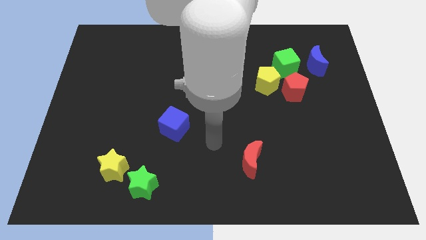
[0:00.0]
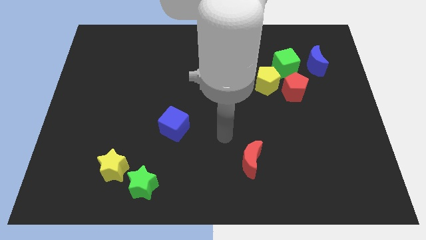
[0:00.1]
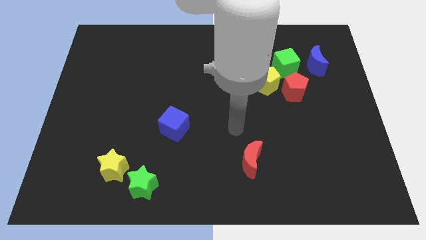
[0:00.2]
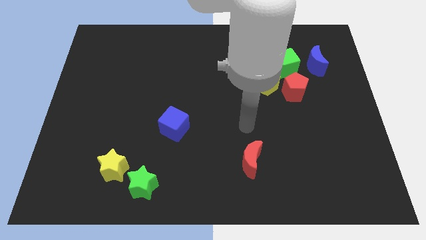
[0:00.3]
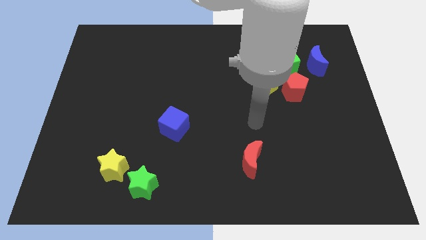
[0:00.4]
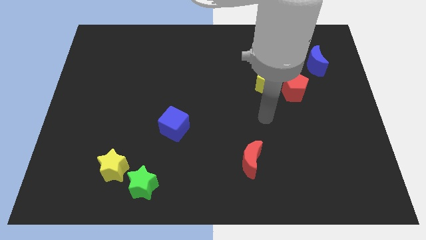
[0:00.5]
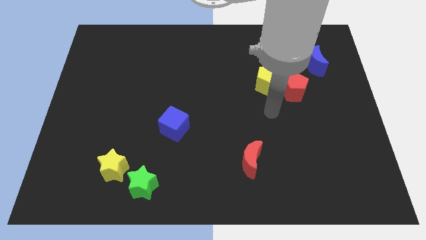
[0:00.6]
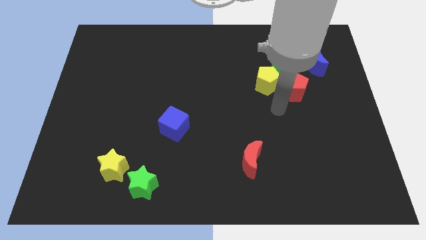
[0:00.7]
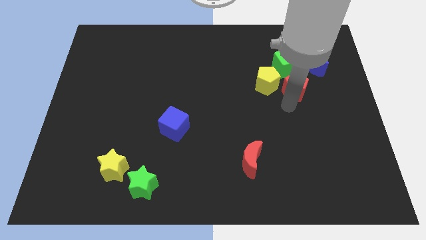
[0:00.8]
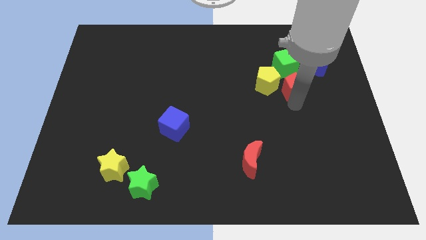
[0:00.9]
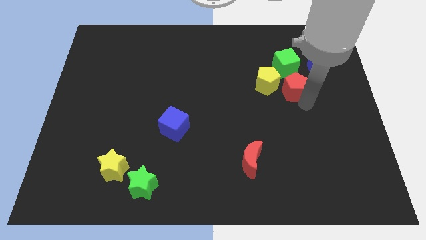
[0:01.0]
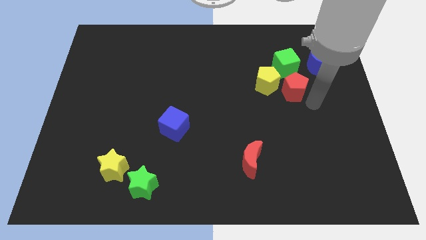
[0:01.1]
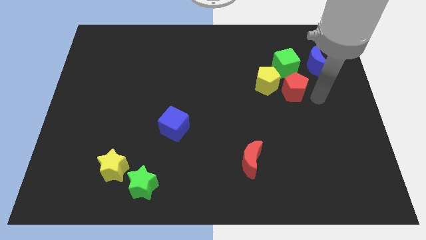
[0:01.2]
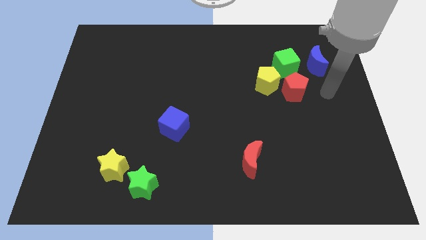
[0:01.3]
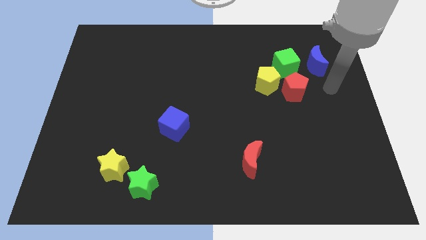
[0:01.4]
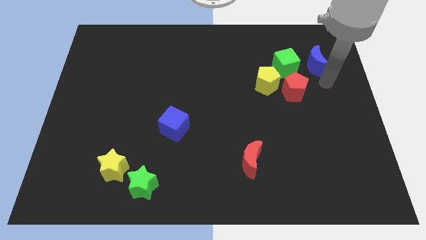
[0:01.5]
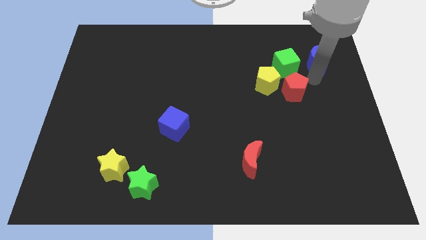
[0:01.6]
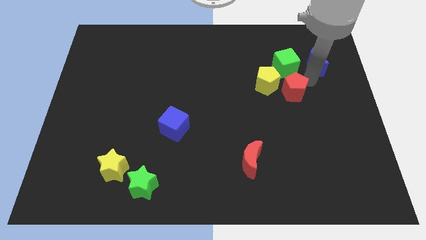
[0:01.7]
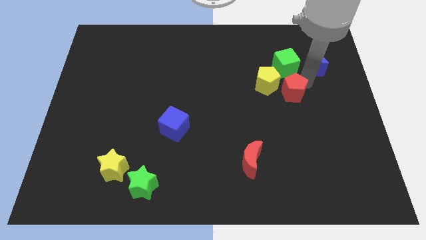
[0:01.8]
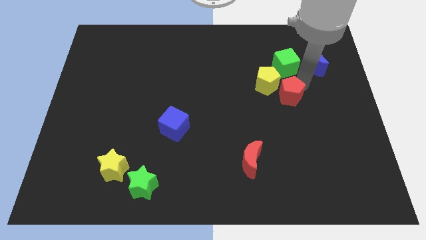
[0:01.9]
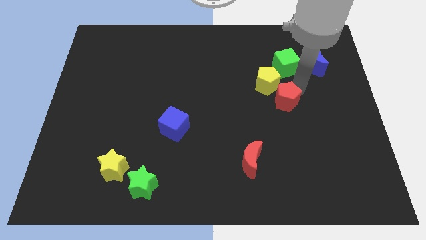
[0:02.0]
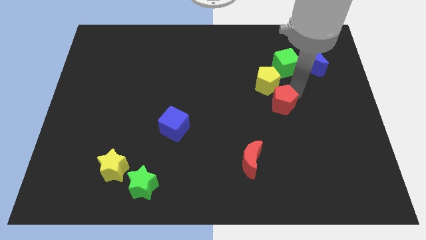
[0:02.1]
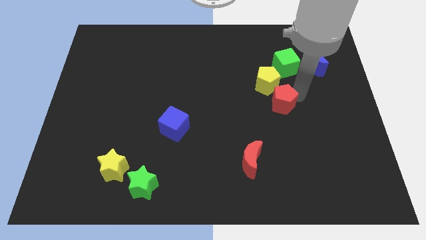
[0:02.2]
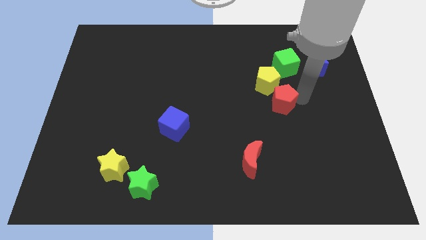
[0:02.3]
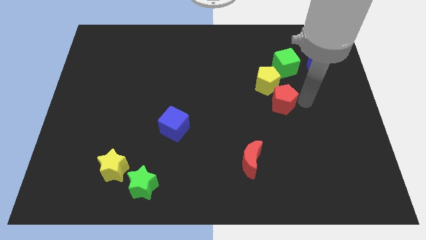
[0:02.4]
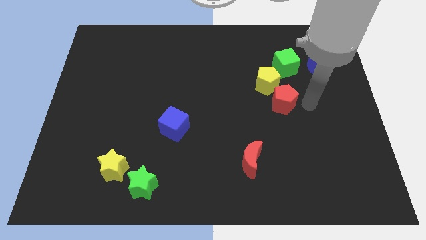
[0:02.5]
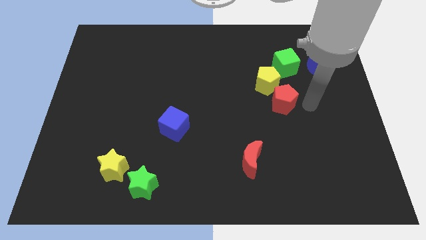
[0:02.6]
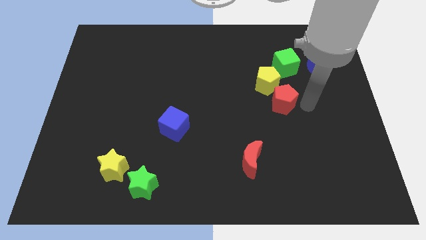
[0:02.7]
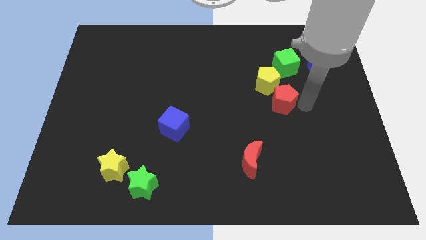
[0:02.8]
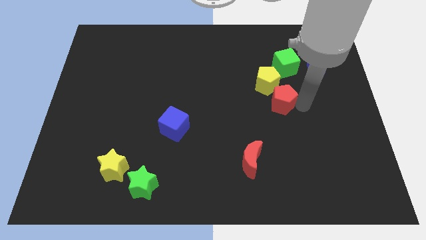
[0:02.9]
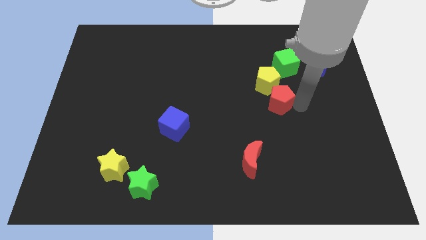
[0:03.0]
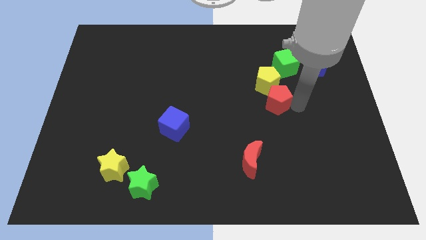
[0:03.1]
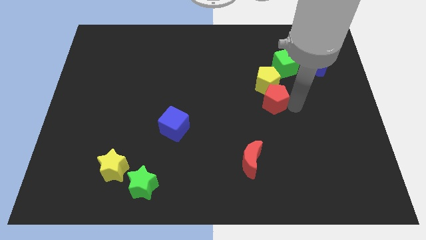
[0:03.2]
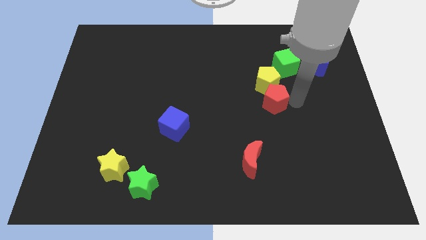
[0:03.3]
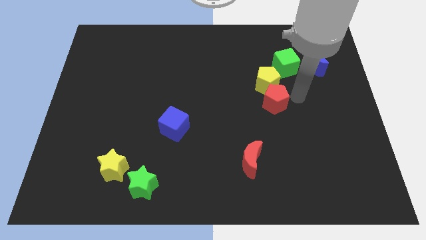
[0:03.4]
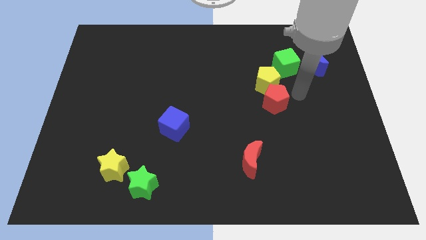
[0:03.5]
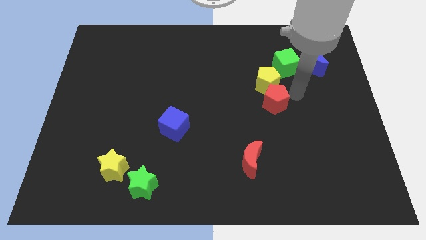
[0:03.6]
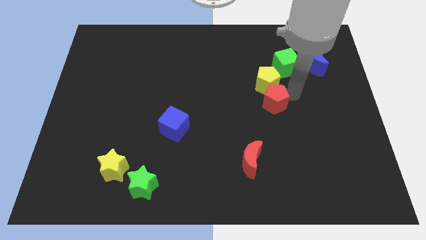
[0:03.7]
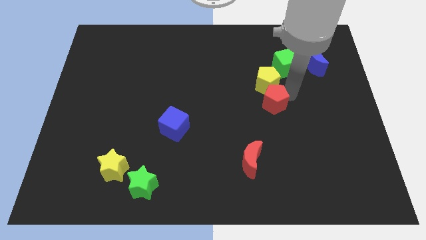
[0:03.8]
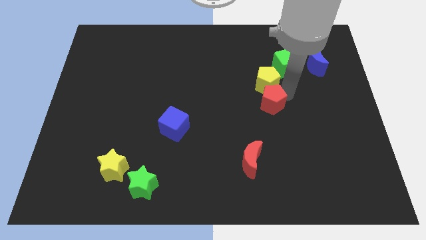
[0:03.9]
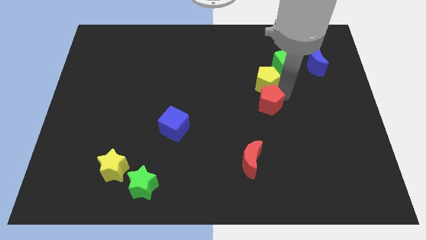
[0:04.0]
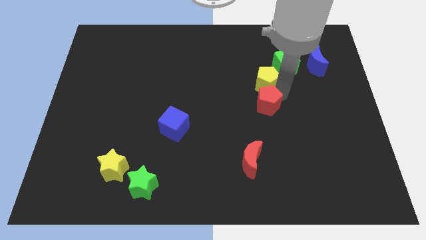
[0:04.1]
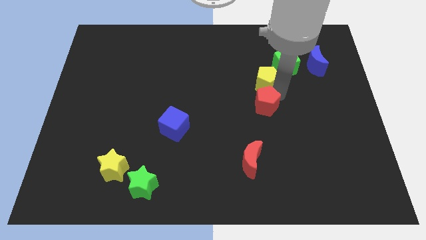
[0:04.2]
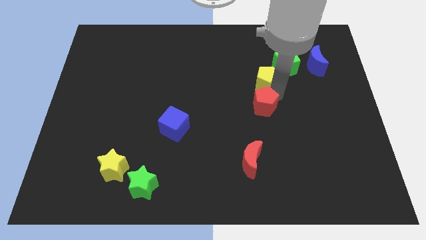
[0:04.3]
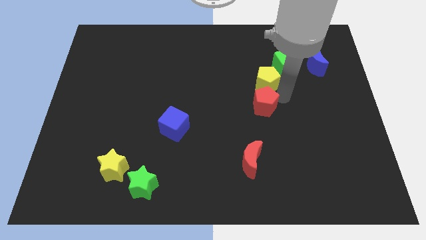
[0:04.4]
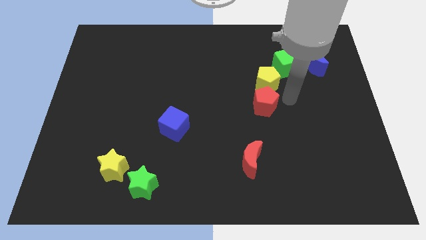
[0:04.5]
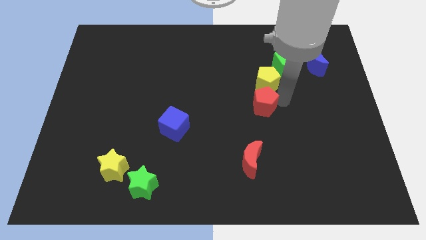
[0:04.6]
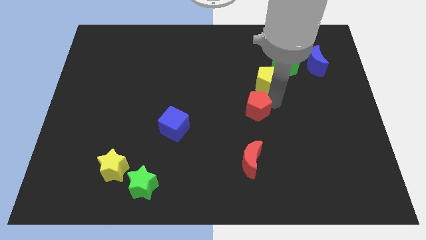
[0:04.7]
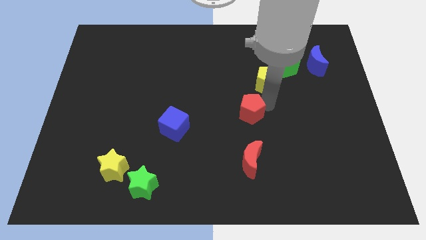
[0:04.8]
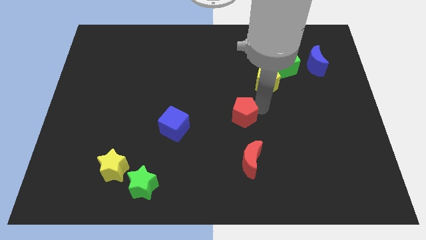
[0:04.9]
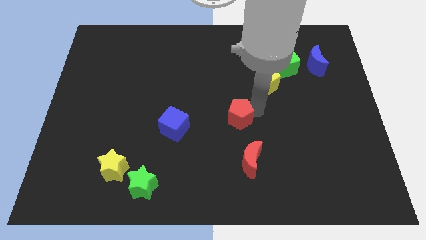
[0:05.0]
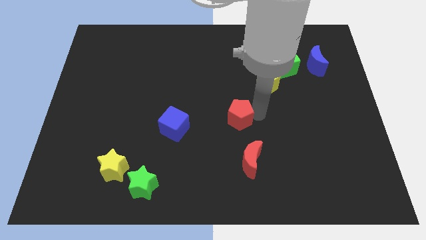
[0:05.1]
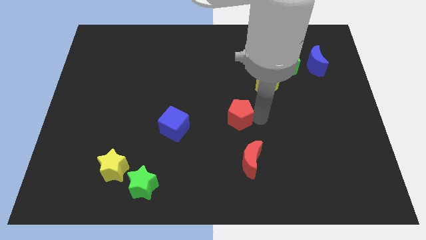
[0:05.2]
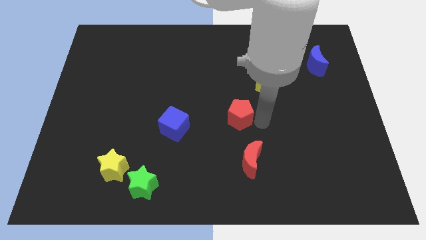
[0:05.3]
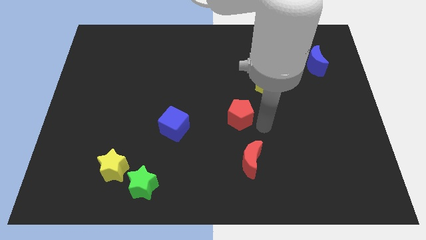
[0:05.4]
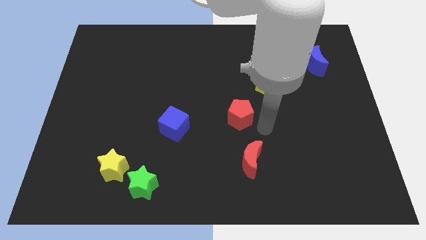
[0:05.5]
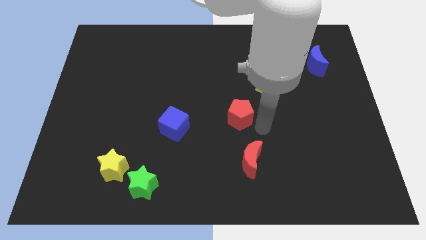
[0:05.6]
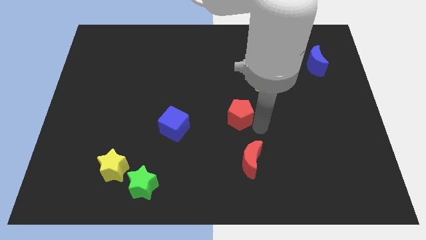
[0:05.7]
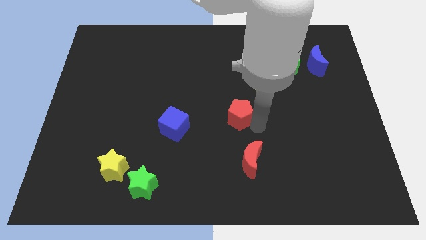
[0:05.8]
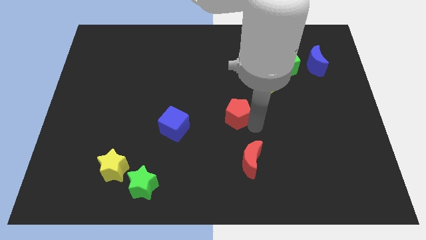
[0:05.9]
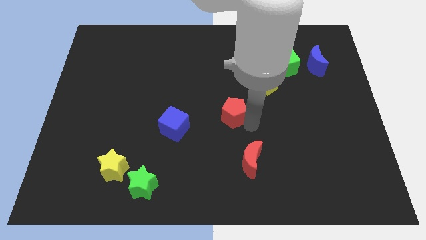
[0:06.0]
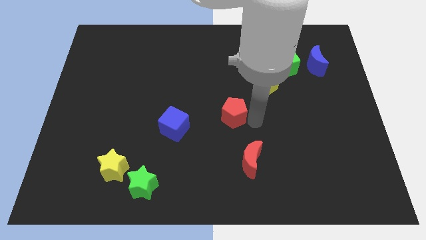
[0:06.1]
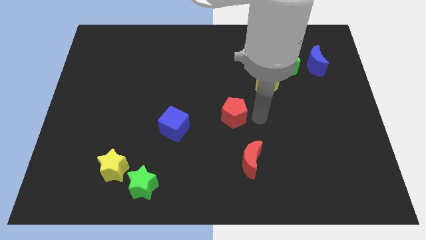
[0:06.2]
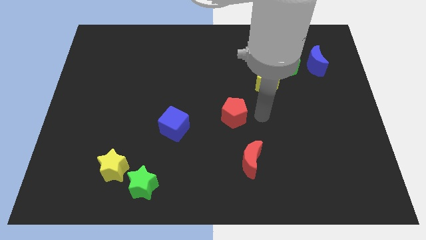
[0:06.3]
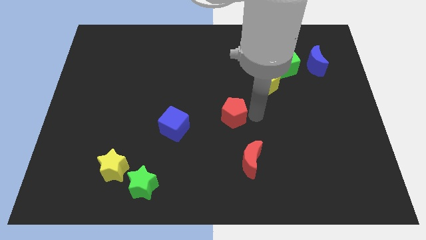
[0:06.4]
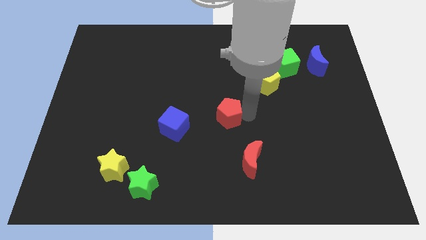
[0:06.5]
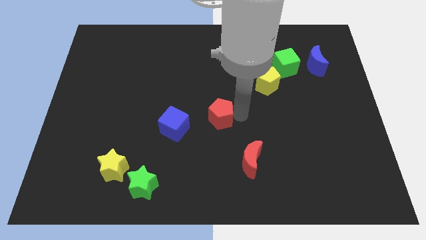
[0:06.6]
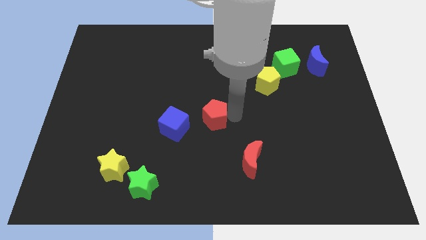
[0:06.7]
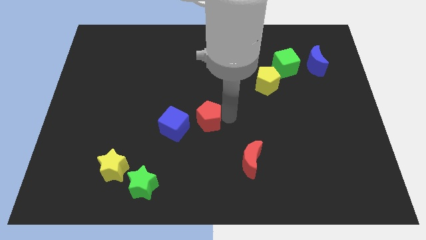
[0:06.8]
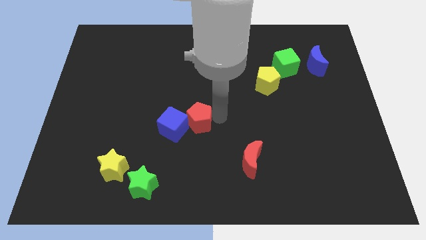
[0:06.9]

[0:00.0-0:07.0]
move the red pentagon towards the blue cube
